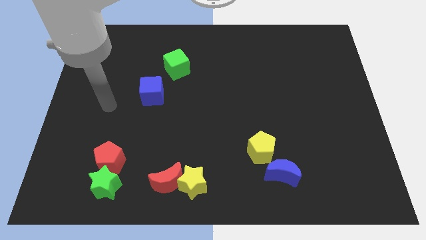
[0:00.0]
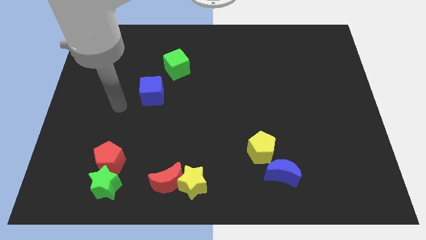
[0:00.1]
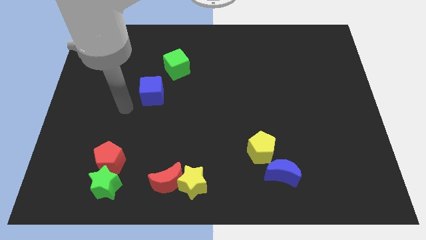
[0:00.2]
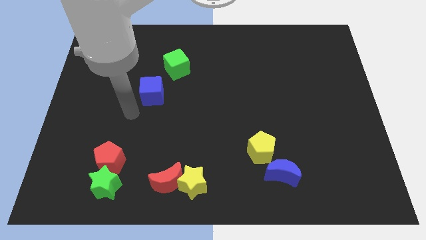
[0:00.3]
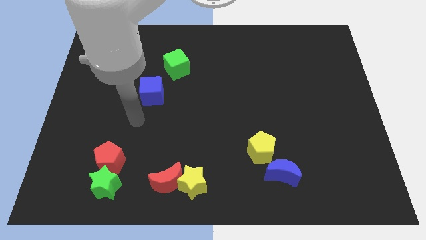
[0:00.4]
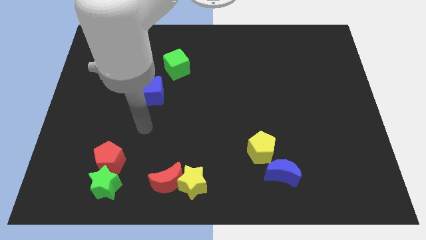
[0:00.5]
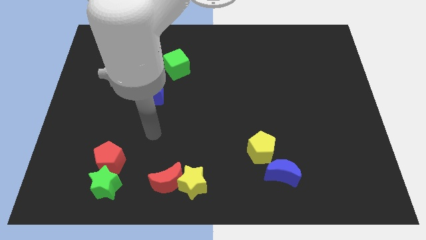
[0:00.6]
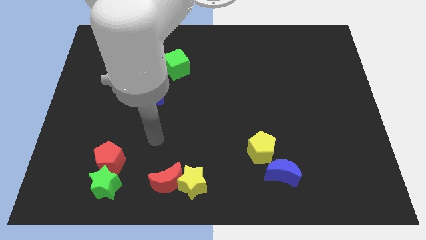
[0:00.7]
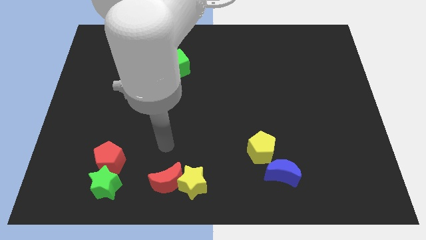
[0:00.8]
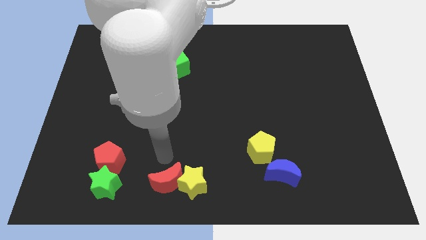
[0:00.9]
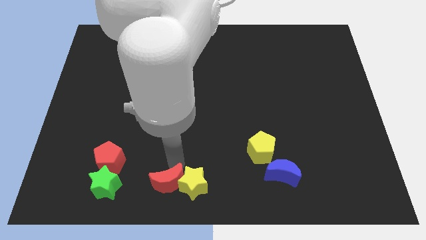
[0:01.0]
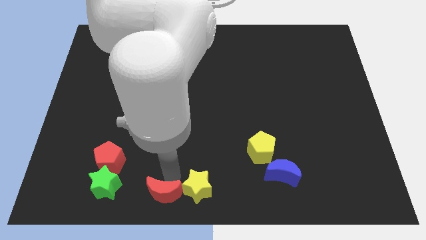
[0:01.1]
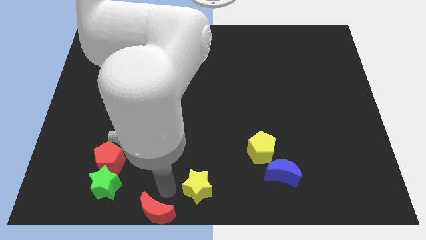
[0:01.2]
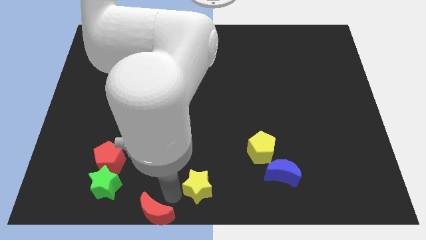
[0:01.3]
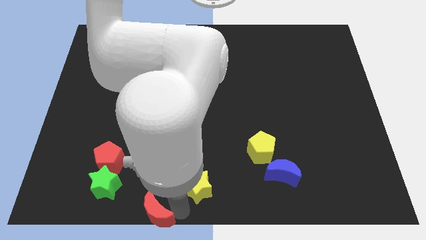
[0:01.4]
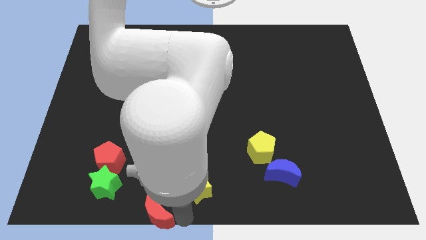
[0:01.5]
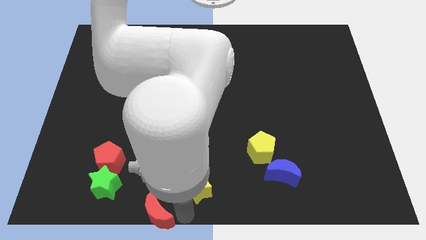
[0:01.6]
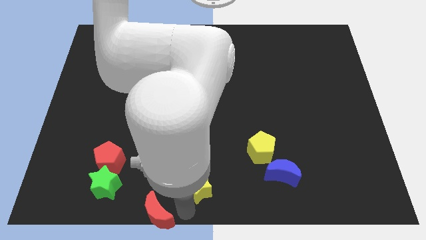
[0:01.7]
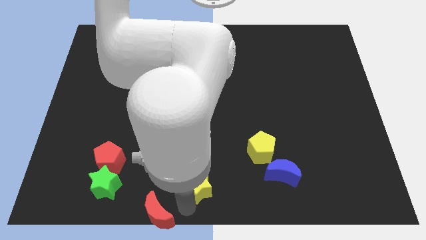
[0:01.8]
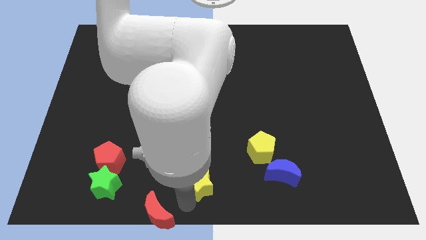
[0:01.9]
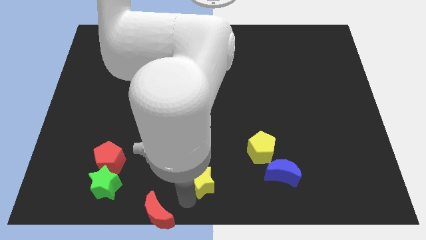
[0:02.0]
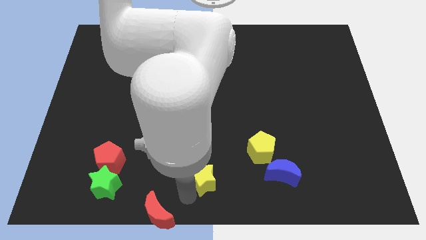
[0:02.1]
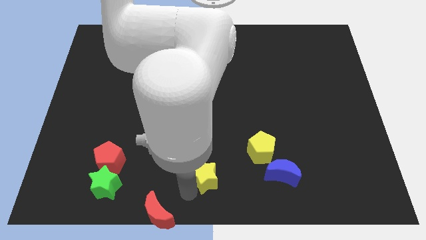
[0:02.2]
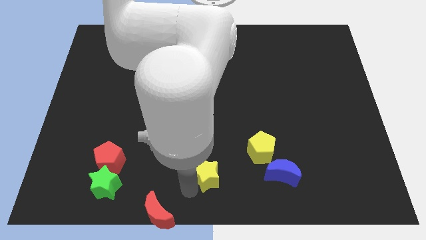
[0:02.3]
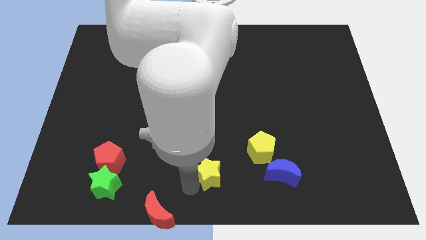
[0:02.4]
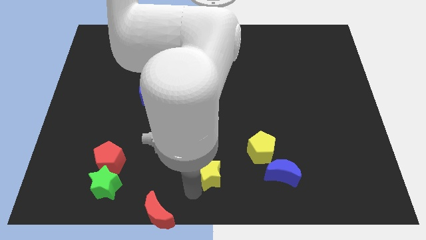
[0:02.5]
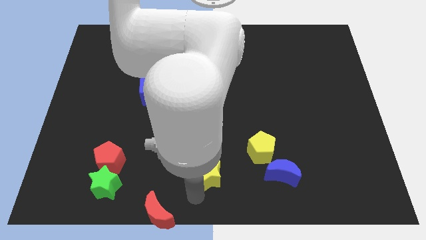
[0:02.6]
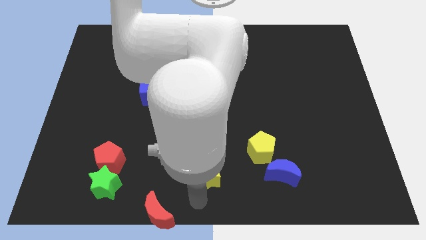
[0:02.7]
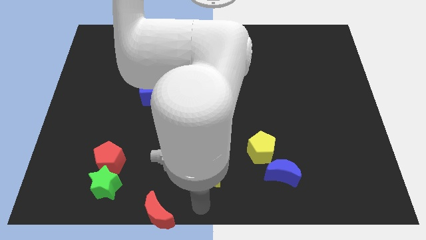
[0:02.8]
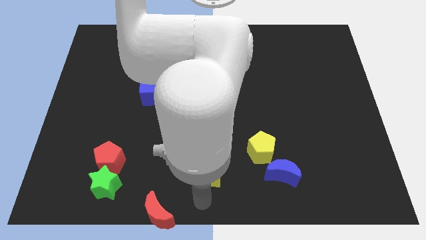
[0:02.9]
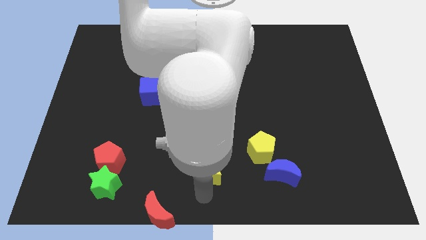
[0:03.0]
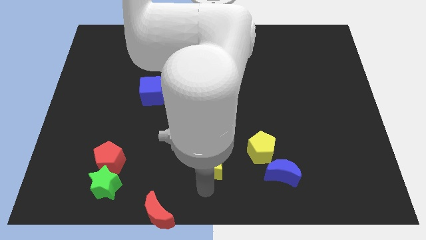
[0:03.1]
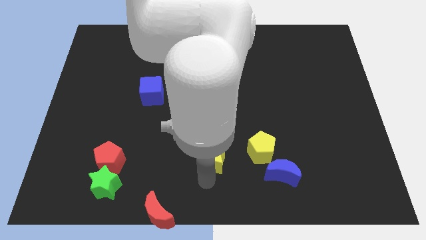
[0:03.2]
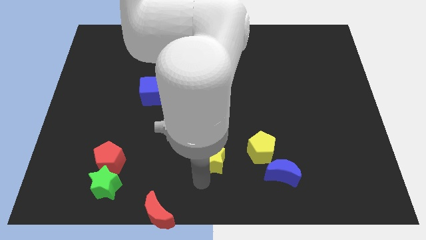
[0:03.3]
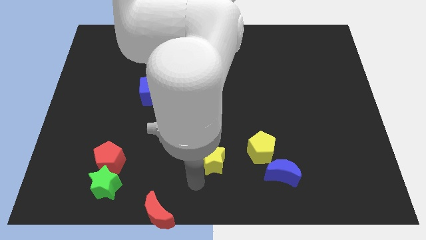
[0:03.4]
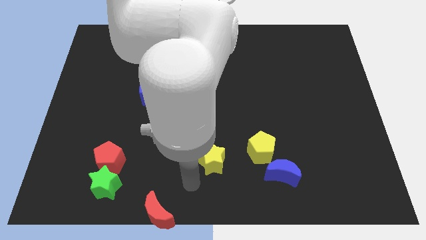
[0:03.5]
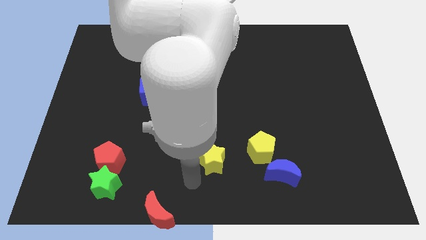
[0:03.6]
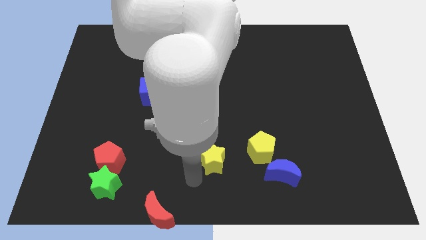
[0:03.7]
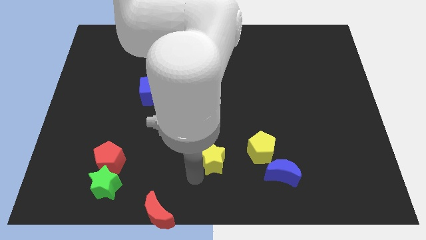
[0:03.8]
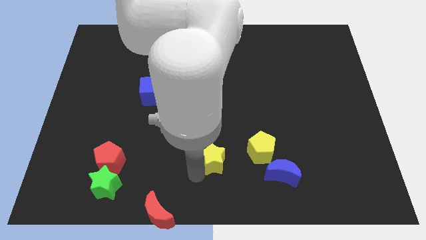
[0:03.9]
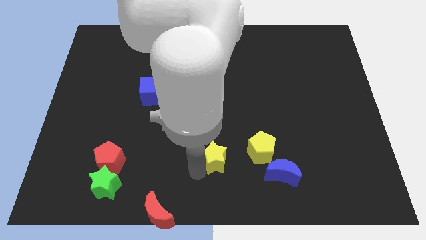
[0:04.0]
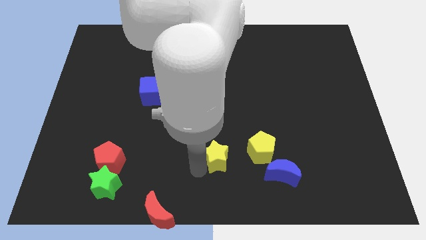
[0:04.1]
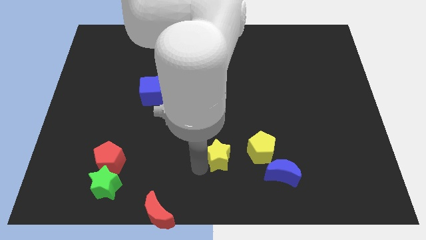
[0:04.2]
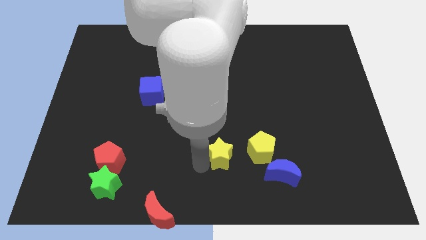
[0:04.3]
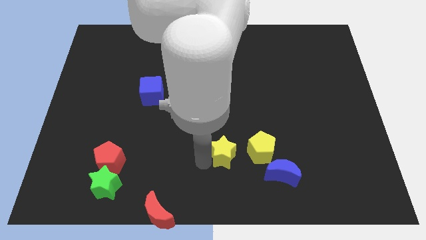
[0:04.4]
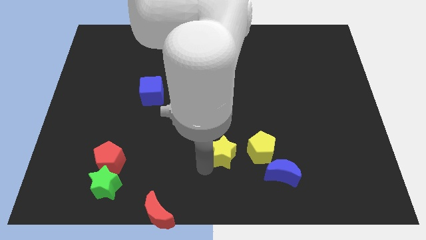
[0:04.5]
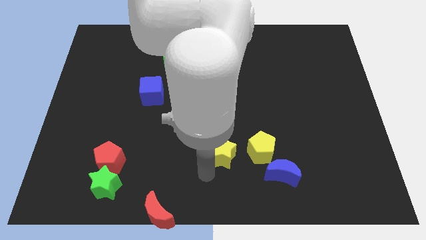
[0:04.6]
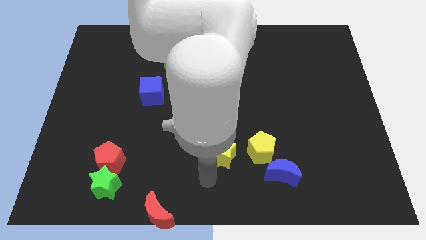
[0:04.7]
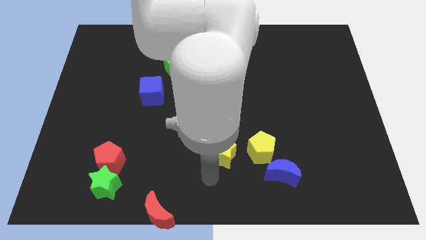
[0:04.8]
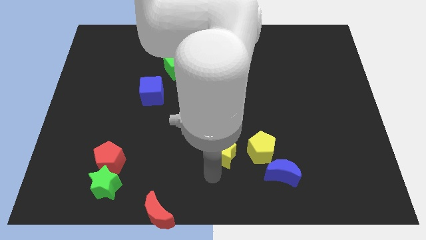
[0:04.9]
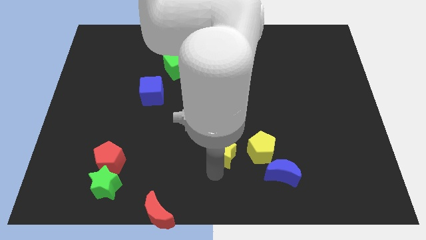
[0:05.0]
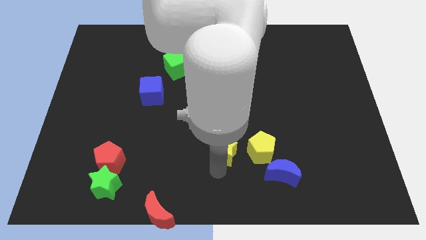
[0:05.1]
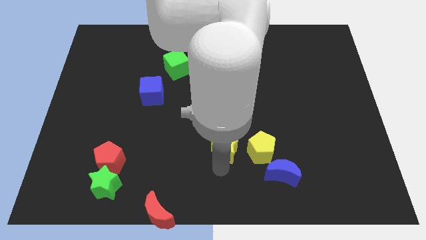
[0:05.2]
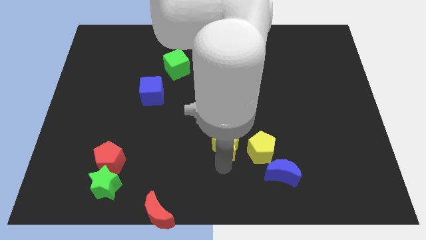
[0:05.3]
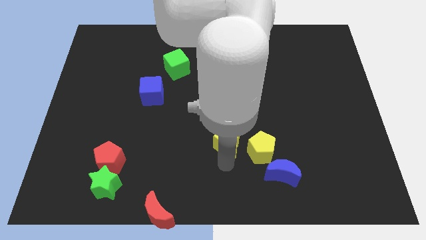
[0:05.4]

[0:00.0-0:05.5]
move the yellow star diagonally up and to the left of the yellow pentagon

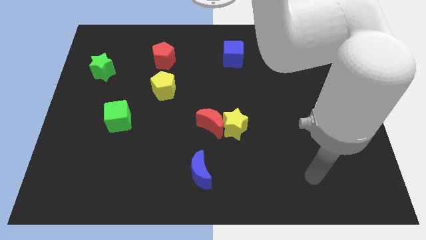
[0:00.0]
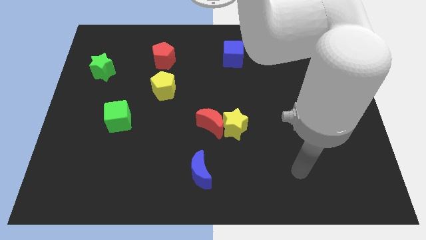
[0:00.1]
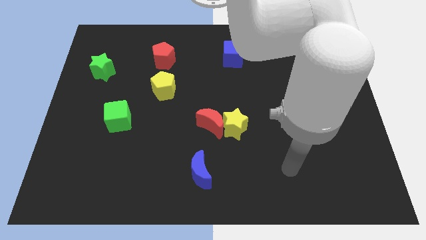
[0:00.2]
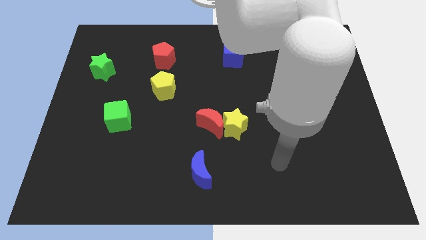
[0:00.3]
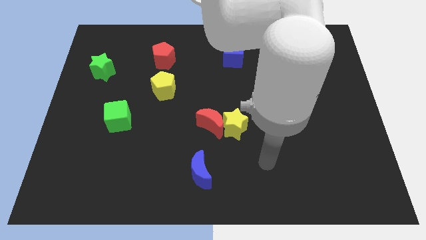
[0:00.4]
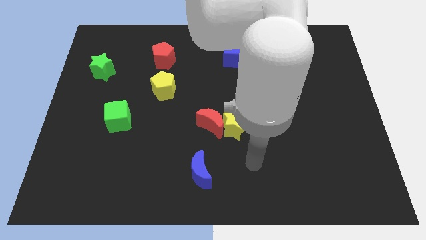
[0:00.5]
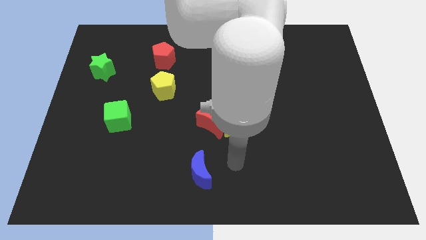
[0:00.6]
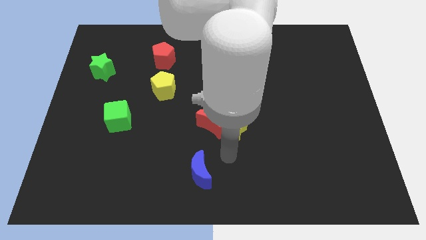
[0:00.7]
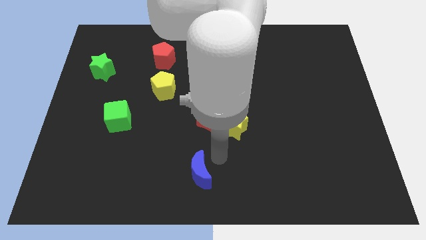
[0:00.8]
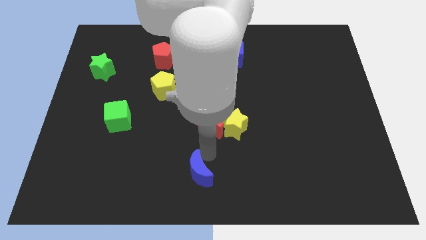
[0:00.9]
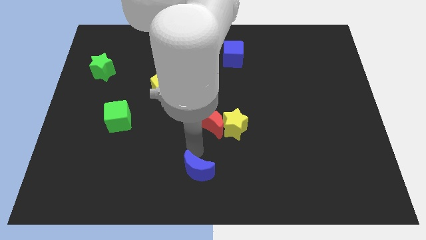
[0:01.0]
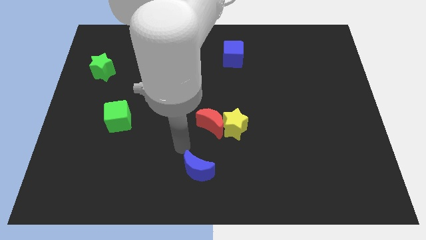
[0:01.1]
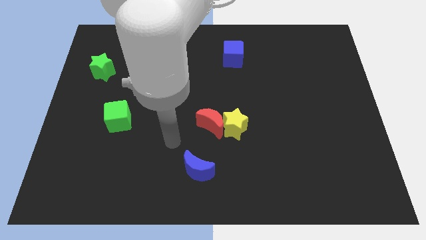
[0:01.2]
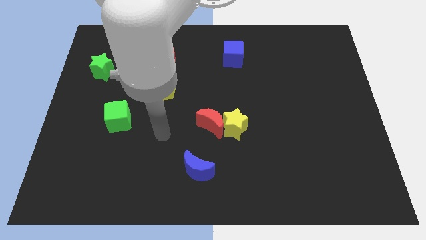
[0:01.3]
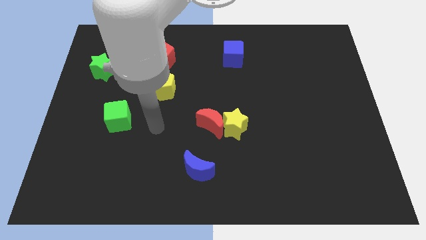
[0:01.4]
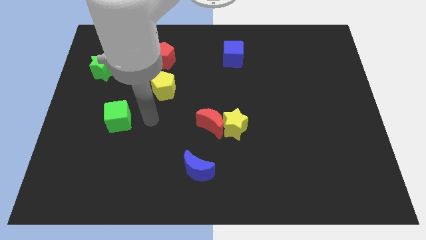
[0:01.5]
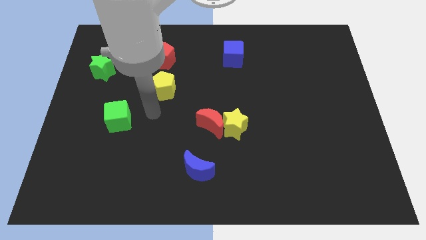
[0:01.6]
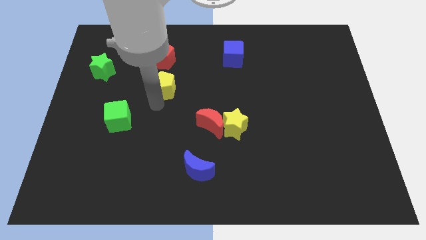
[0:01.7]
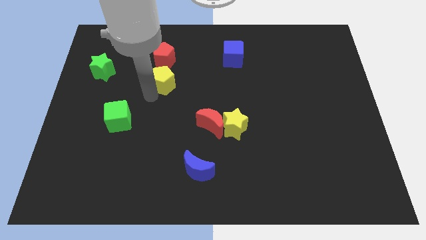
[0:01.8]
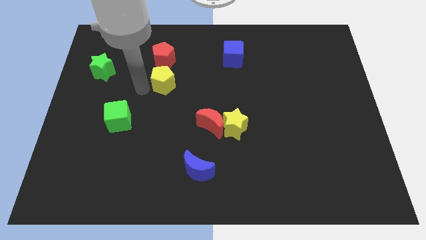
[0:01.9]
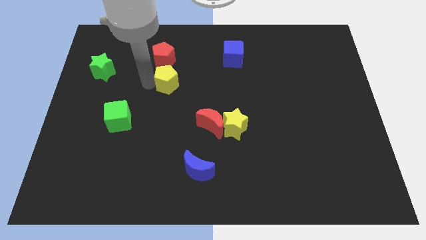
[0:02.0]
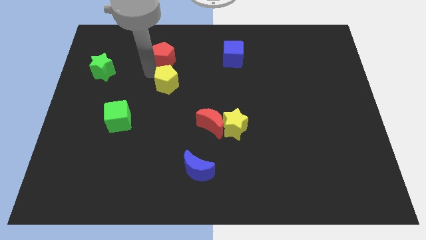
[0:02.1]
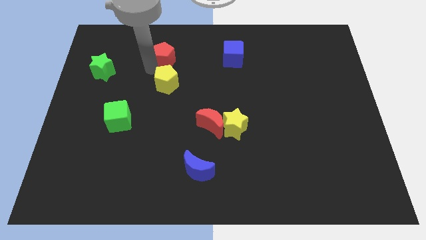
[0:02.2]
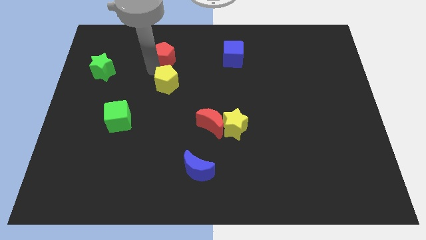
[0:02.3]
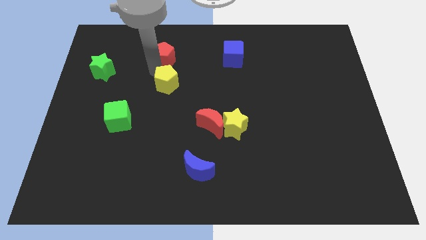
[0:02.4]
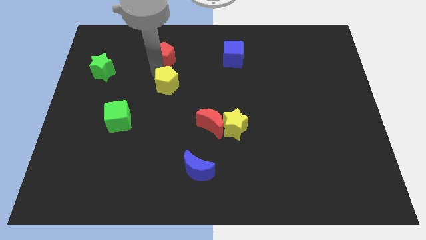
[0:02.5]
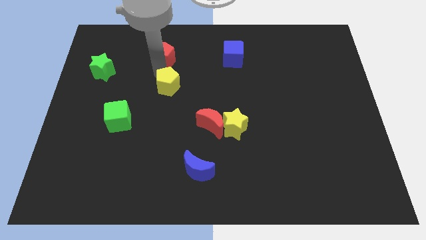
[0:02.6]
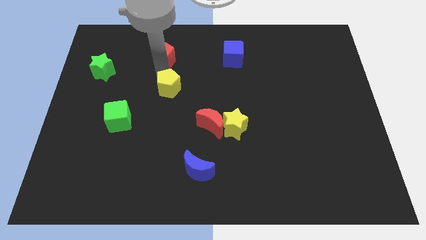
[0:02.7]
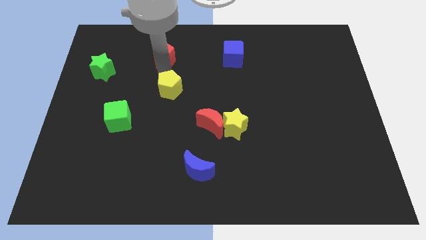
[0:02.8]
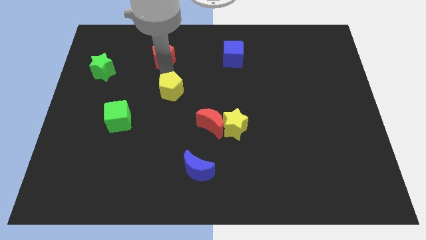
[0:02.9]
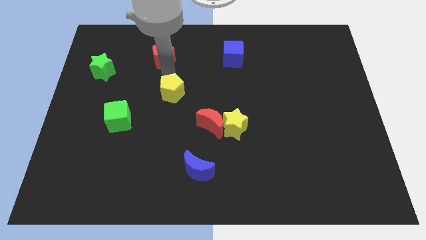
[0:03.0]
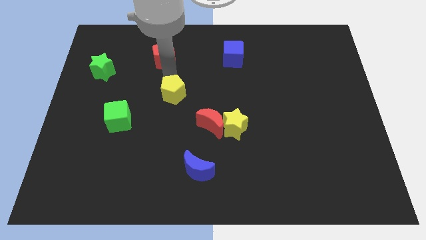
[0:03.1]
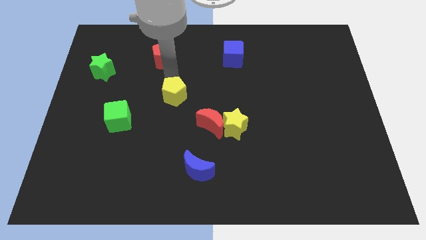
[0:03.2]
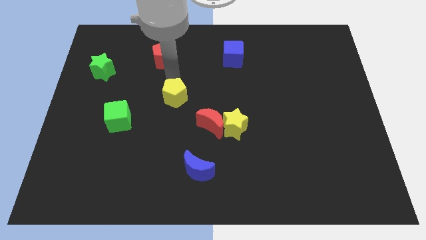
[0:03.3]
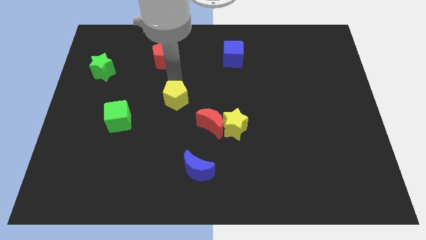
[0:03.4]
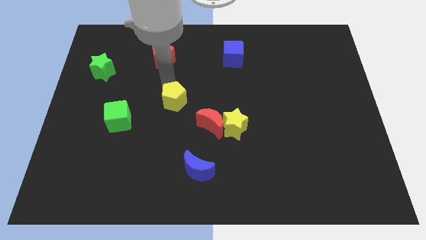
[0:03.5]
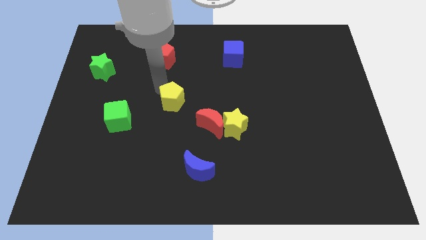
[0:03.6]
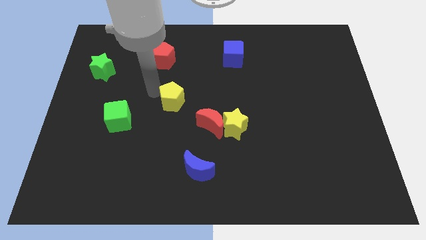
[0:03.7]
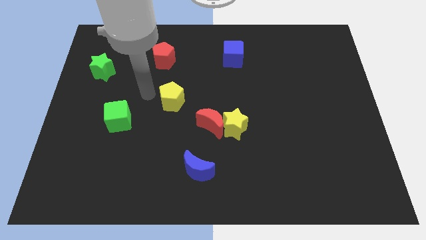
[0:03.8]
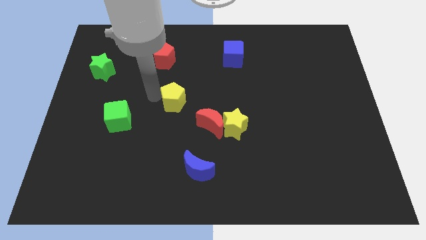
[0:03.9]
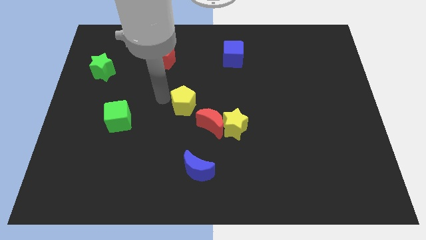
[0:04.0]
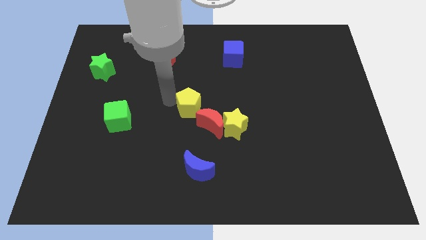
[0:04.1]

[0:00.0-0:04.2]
push the yellow pentagon diagonally up and to the left of the yellow star
